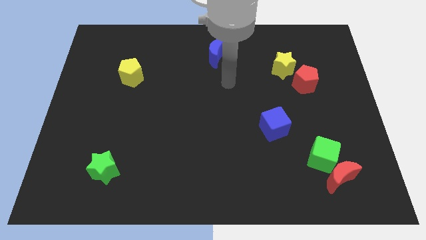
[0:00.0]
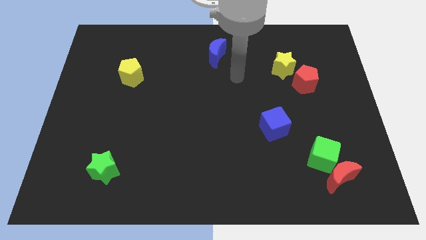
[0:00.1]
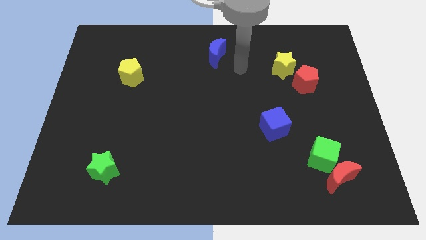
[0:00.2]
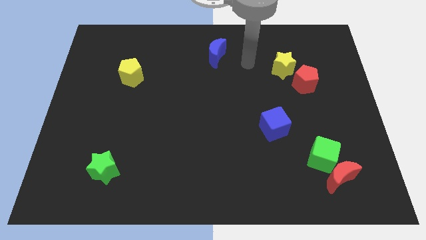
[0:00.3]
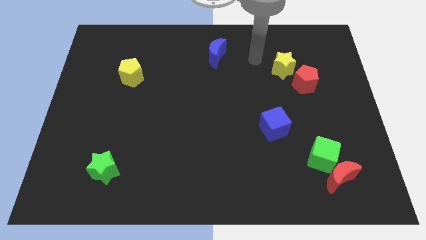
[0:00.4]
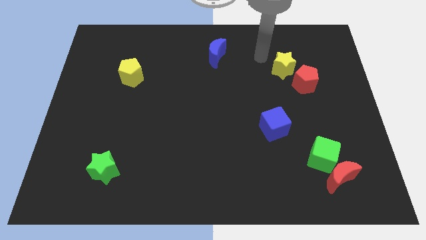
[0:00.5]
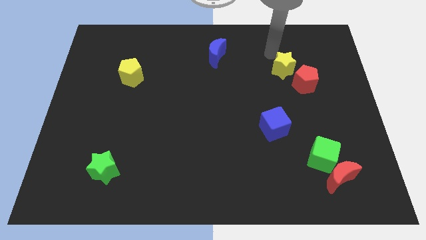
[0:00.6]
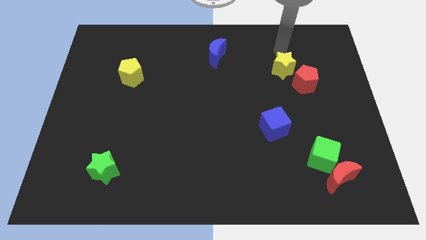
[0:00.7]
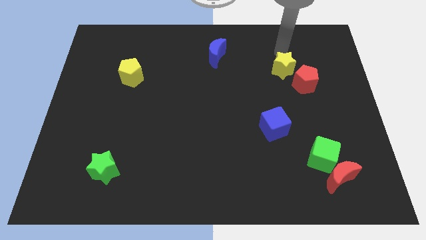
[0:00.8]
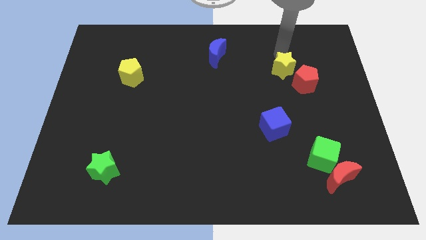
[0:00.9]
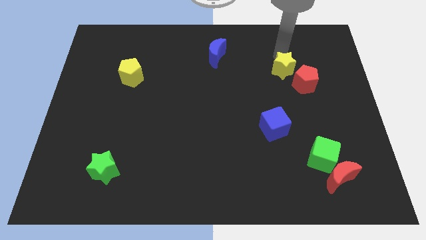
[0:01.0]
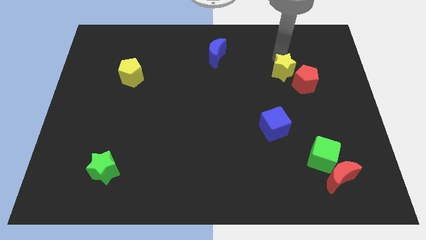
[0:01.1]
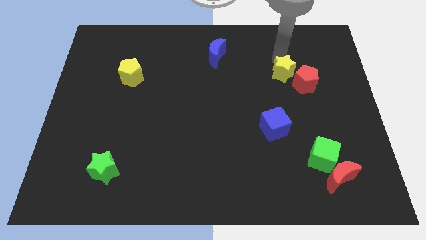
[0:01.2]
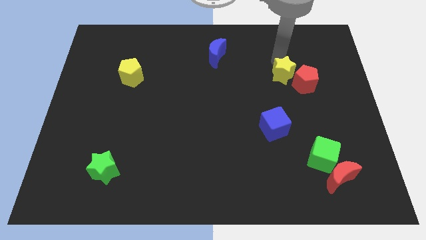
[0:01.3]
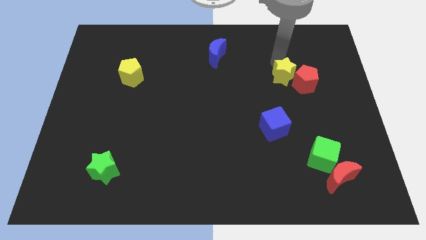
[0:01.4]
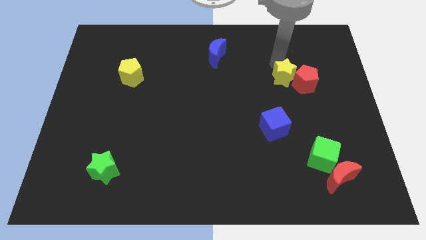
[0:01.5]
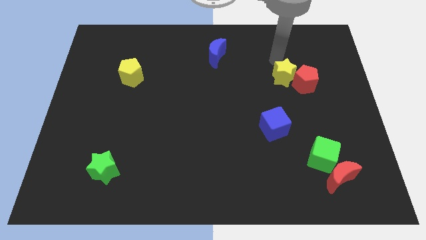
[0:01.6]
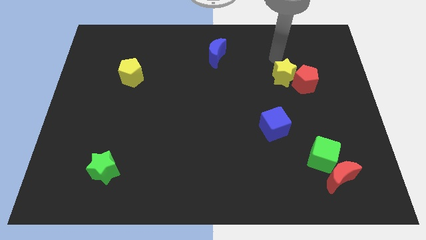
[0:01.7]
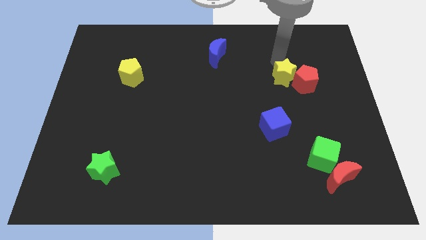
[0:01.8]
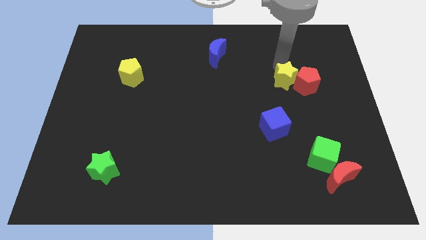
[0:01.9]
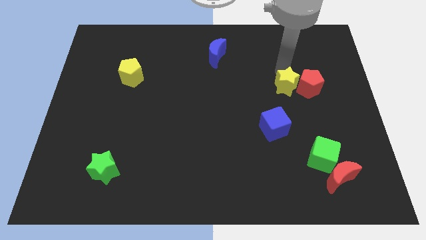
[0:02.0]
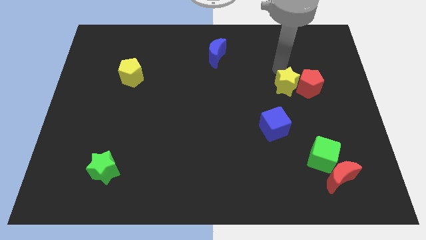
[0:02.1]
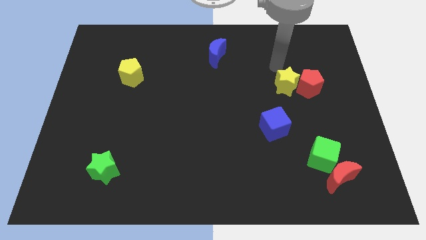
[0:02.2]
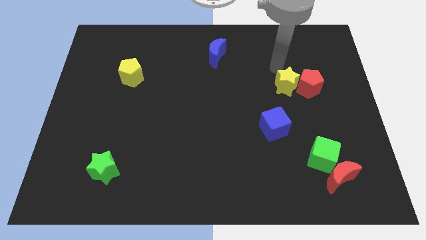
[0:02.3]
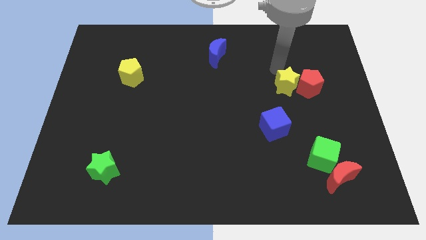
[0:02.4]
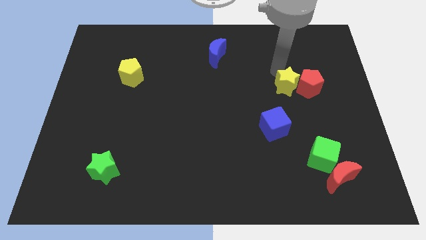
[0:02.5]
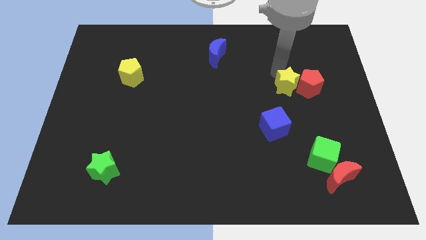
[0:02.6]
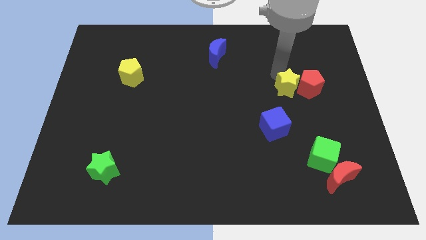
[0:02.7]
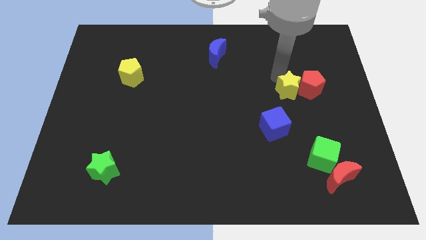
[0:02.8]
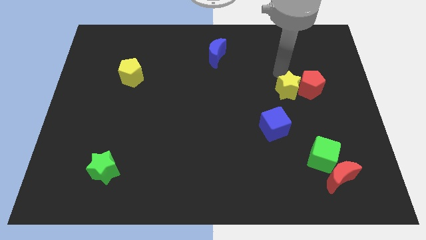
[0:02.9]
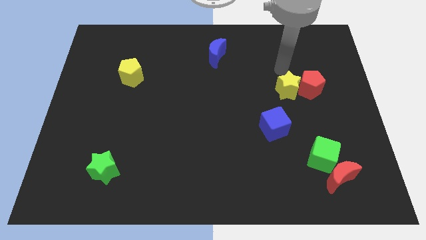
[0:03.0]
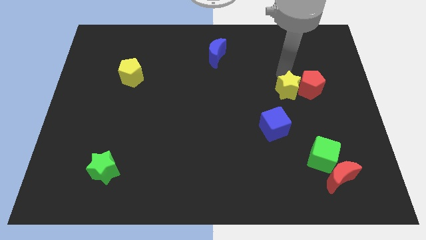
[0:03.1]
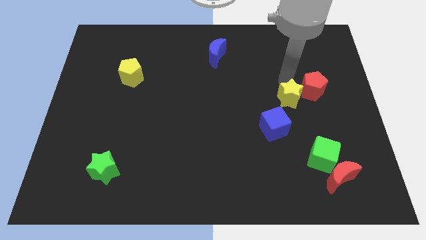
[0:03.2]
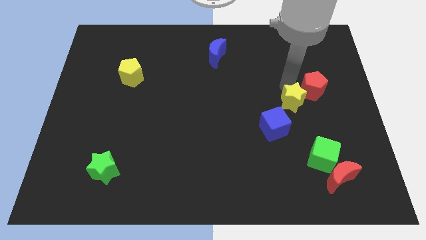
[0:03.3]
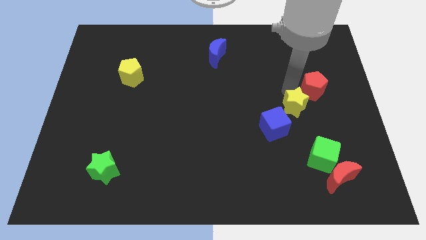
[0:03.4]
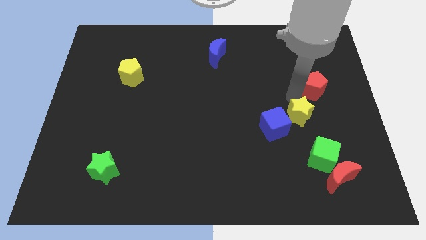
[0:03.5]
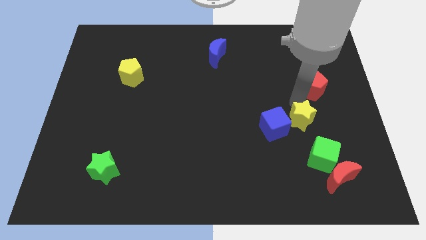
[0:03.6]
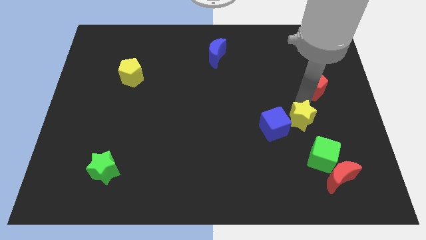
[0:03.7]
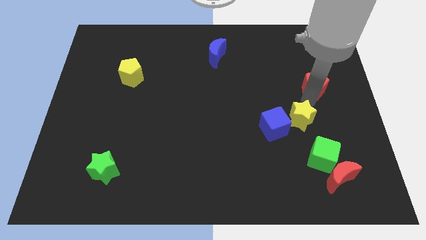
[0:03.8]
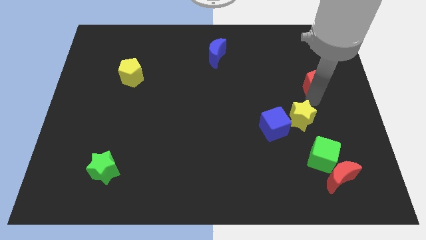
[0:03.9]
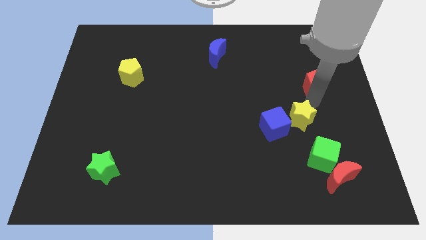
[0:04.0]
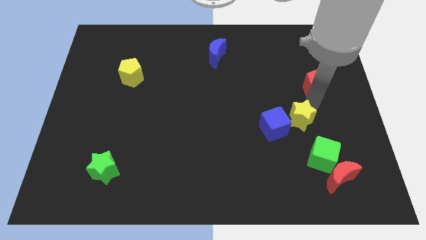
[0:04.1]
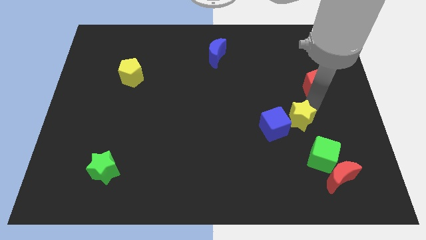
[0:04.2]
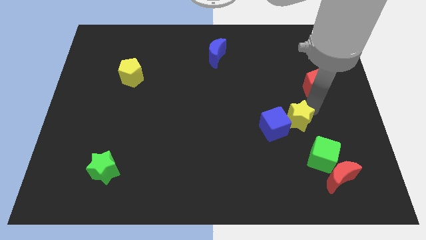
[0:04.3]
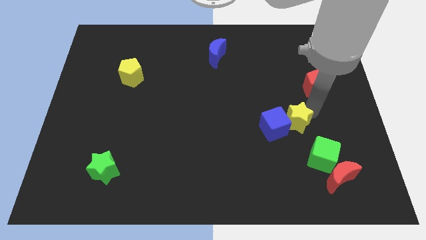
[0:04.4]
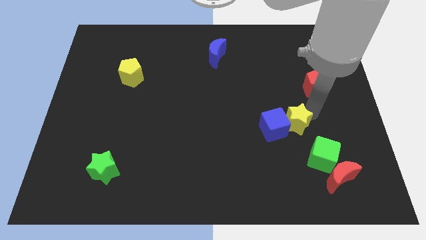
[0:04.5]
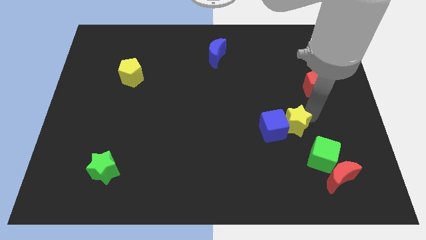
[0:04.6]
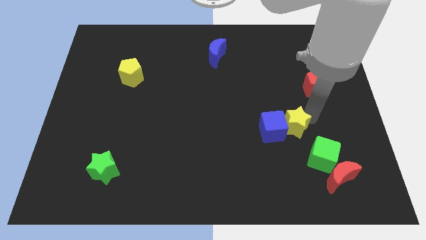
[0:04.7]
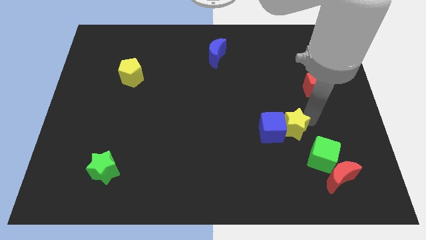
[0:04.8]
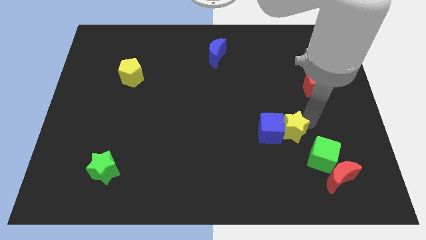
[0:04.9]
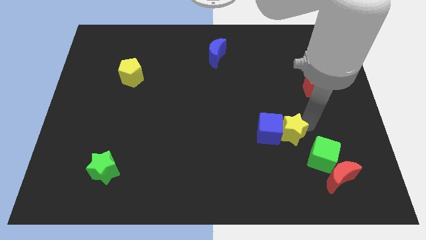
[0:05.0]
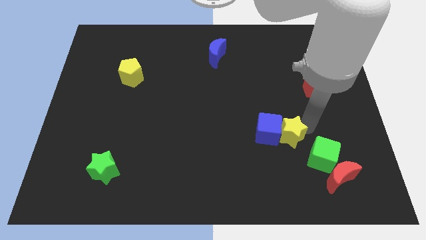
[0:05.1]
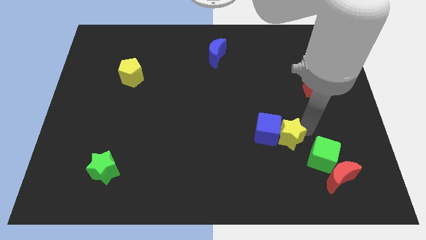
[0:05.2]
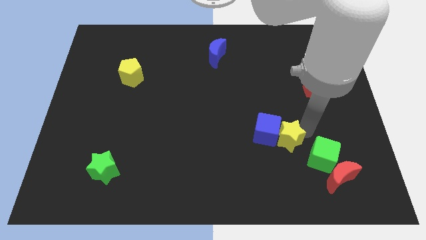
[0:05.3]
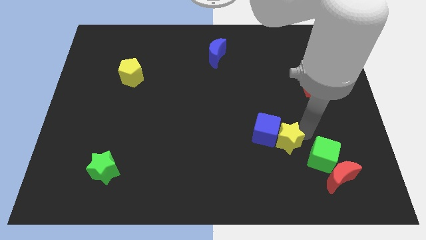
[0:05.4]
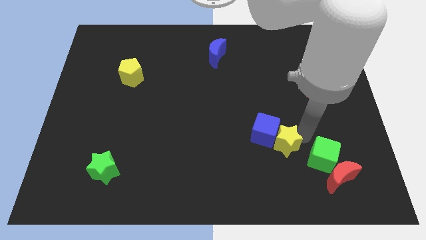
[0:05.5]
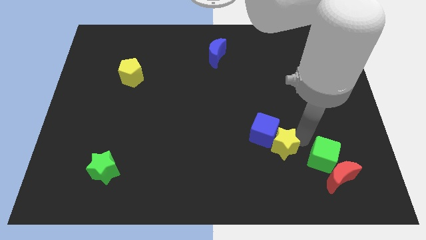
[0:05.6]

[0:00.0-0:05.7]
move the yellow star to the bottom side of the blue cube

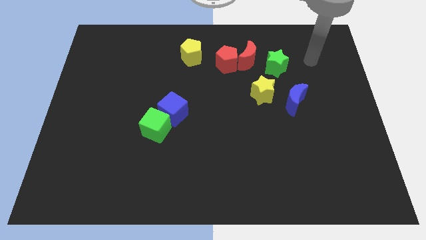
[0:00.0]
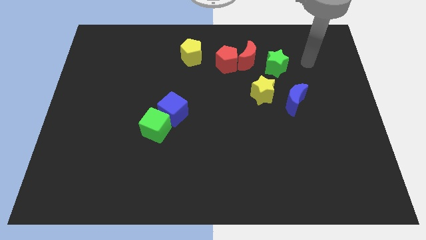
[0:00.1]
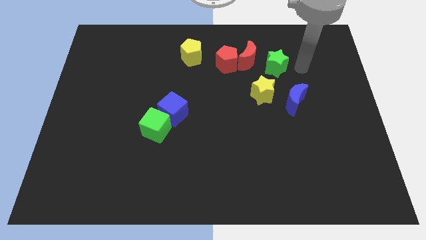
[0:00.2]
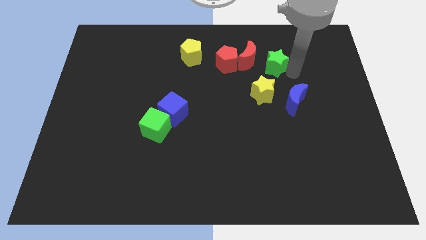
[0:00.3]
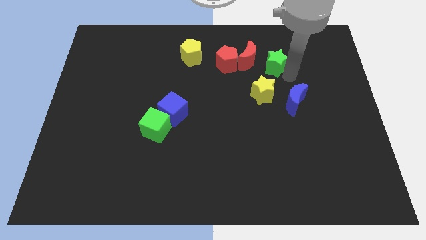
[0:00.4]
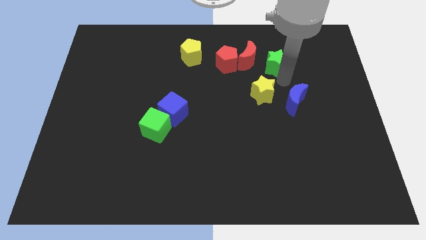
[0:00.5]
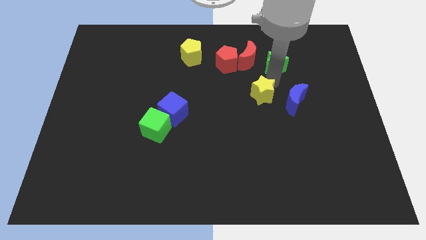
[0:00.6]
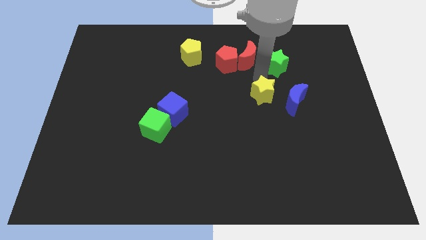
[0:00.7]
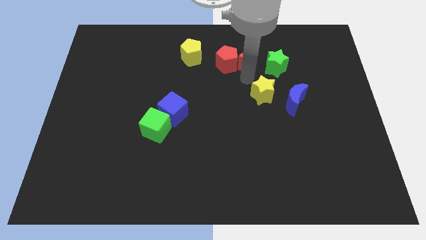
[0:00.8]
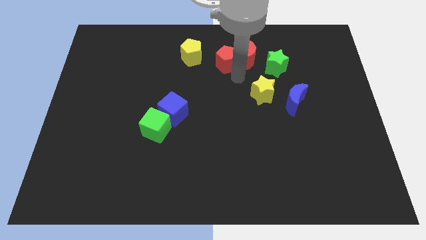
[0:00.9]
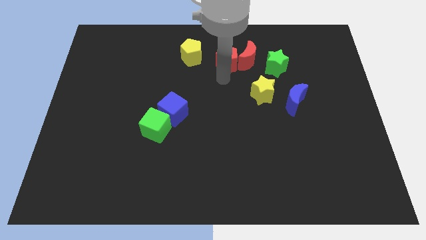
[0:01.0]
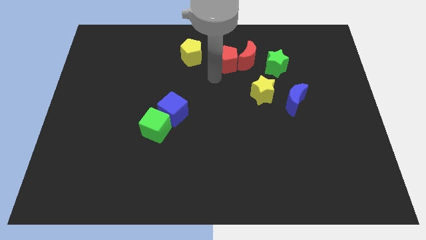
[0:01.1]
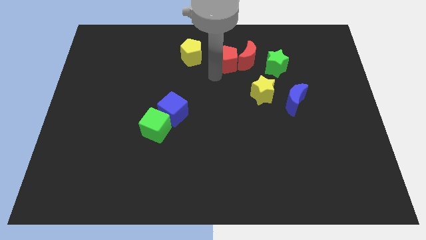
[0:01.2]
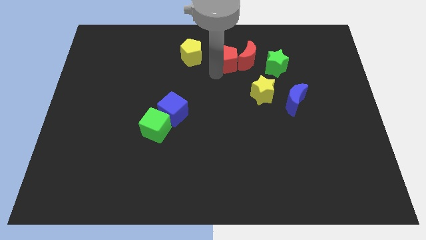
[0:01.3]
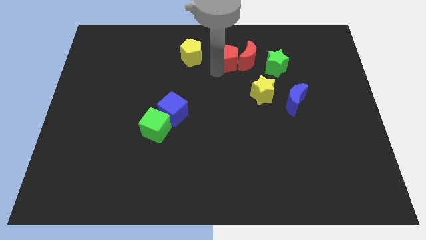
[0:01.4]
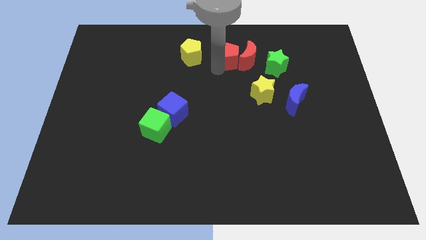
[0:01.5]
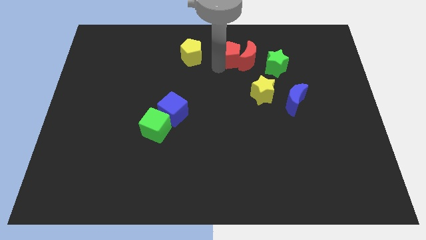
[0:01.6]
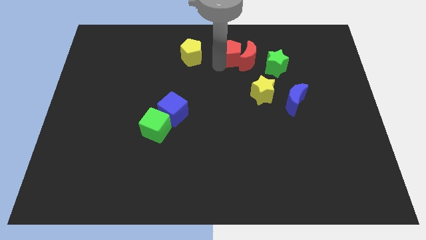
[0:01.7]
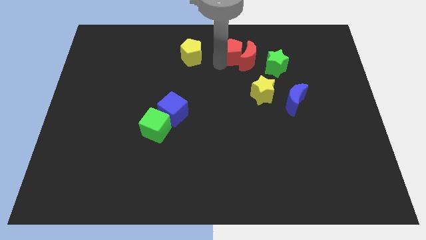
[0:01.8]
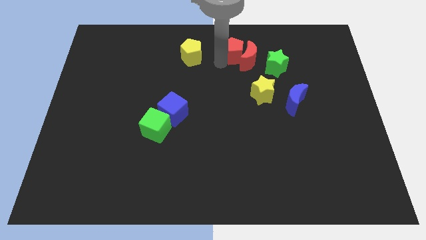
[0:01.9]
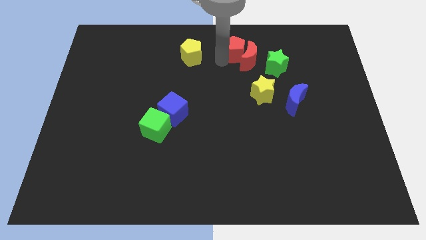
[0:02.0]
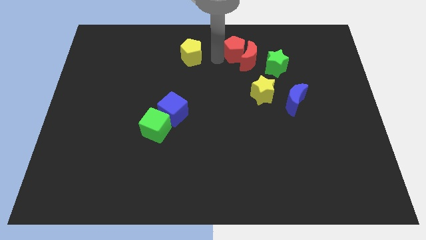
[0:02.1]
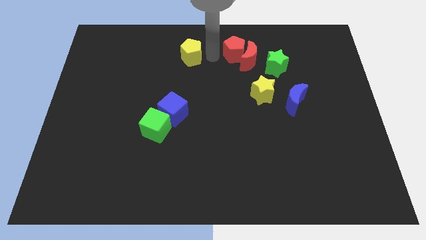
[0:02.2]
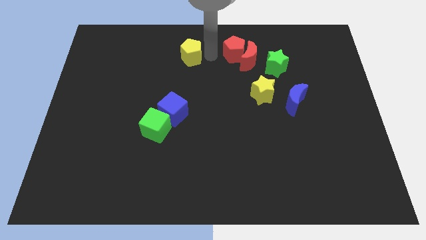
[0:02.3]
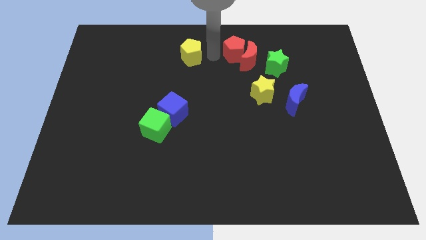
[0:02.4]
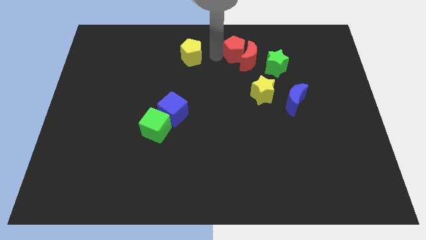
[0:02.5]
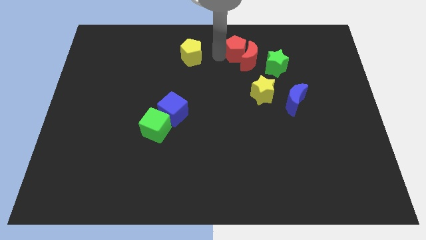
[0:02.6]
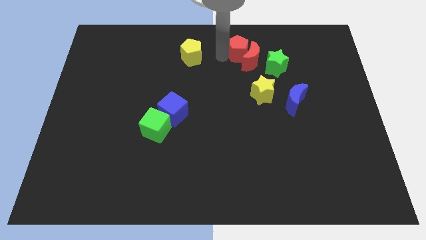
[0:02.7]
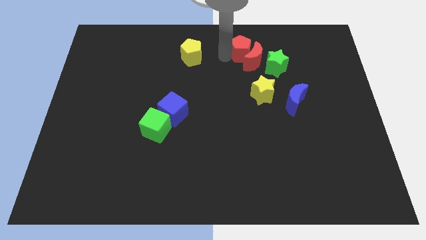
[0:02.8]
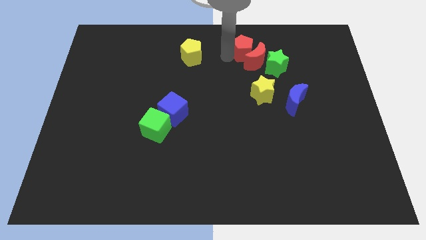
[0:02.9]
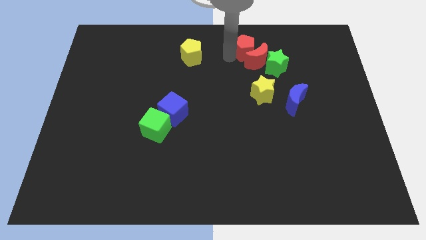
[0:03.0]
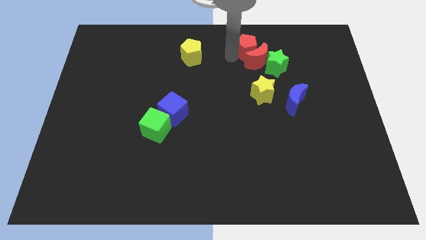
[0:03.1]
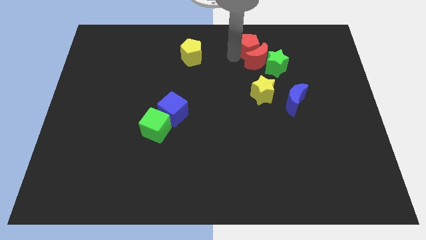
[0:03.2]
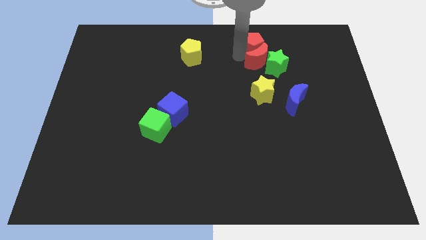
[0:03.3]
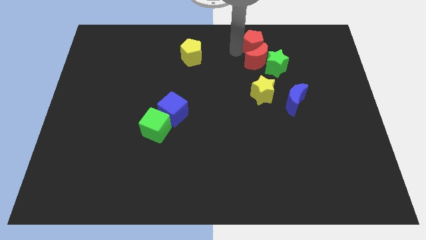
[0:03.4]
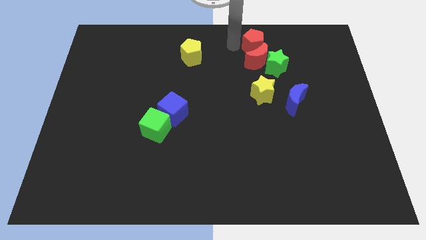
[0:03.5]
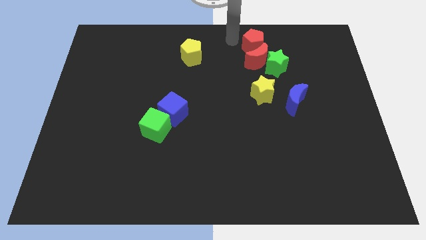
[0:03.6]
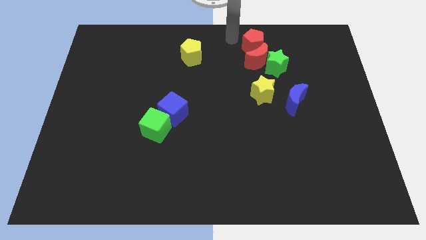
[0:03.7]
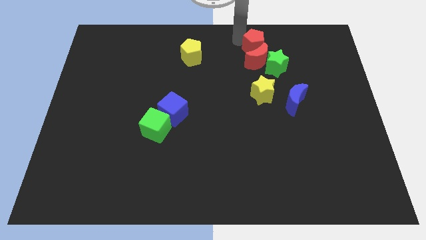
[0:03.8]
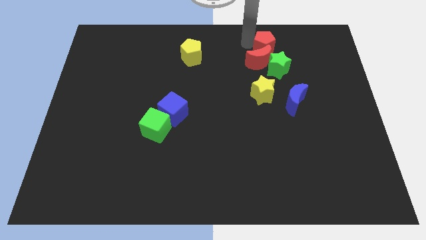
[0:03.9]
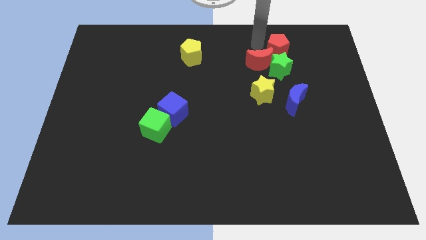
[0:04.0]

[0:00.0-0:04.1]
put the red pentagon to the right of the red moon
